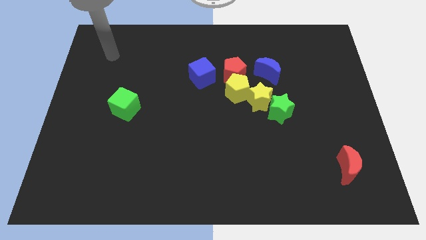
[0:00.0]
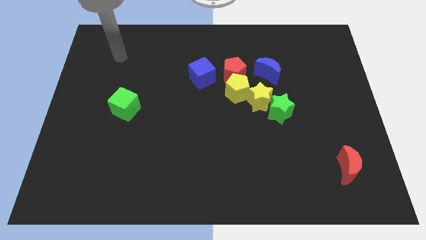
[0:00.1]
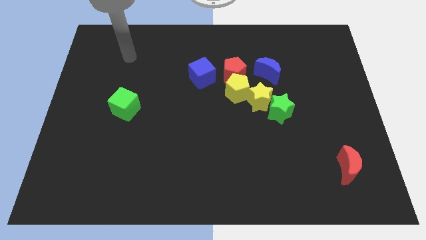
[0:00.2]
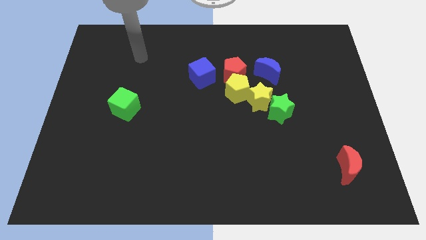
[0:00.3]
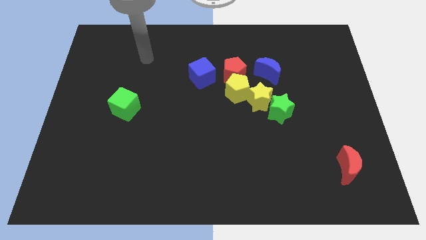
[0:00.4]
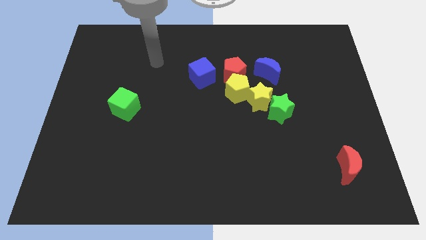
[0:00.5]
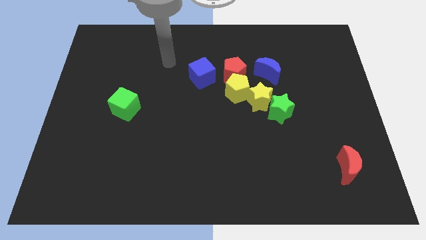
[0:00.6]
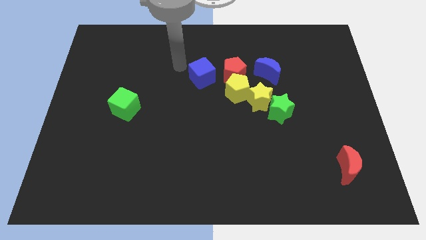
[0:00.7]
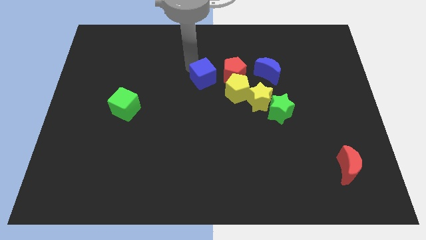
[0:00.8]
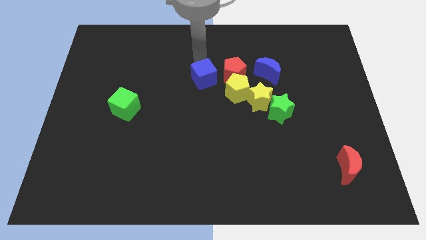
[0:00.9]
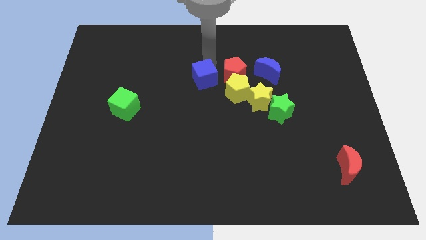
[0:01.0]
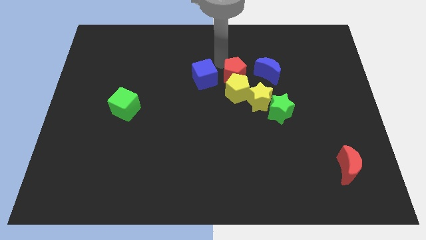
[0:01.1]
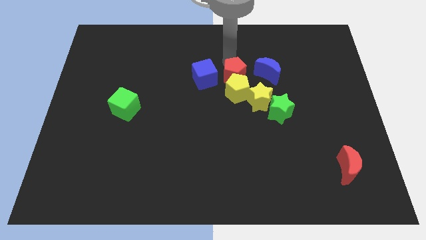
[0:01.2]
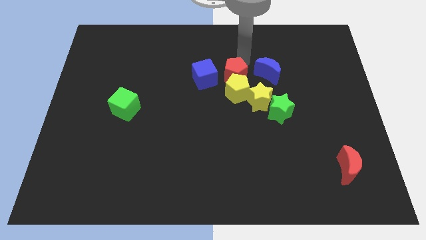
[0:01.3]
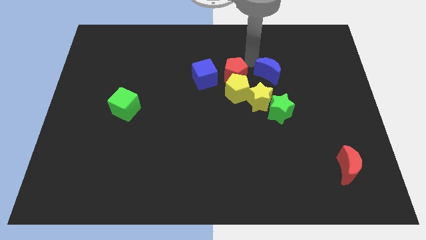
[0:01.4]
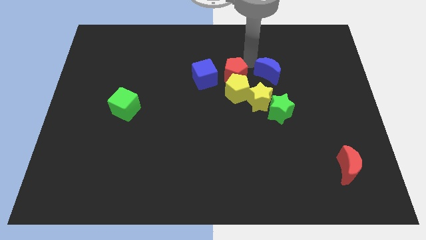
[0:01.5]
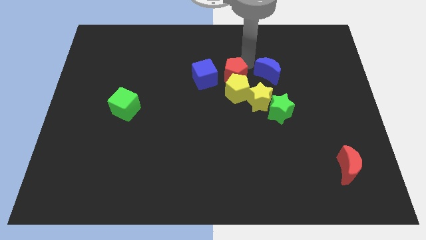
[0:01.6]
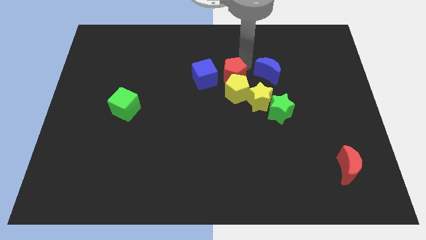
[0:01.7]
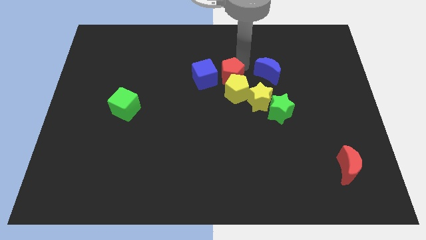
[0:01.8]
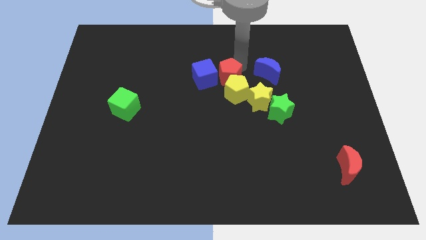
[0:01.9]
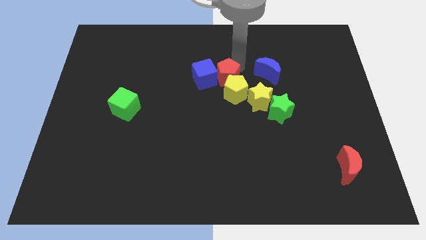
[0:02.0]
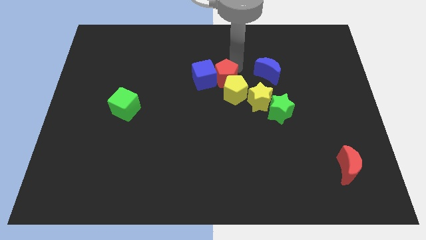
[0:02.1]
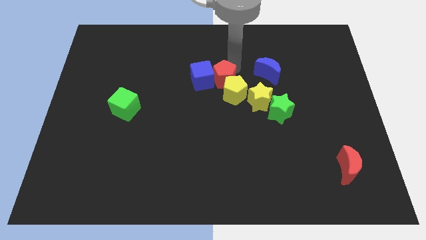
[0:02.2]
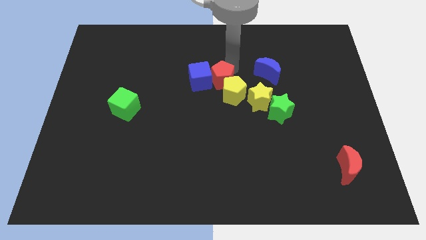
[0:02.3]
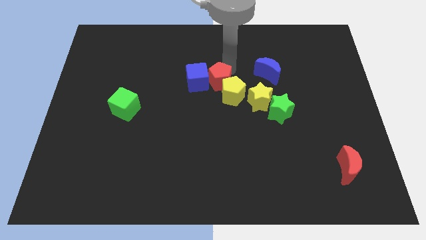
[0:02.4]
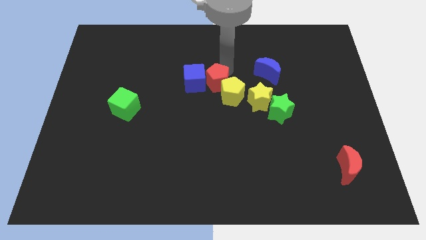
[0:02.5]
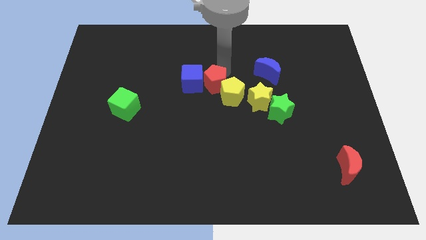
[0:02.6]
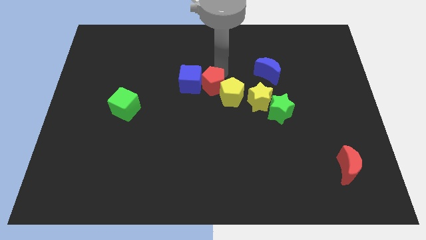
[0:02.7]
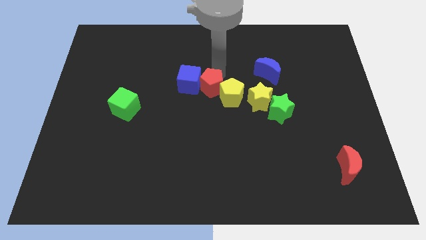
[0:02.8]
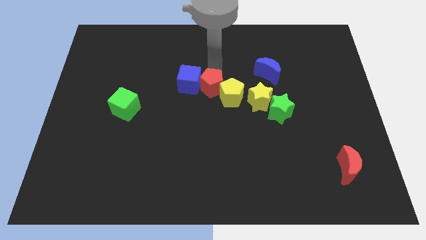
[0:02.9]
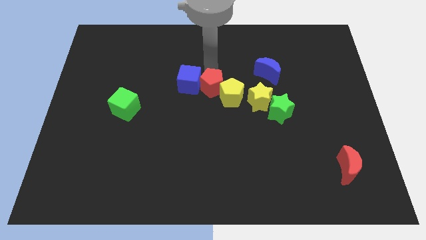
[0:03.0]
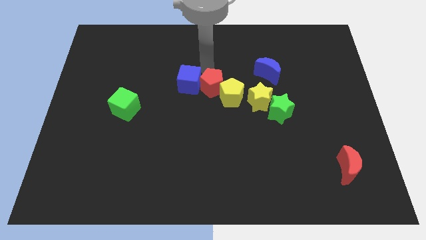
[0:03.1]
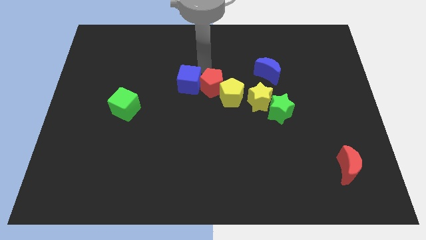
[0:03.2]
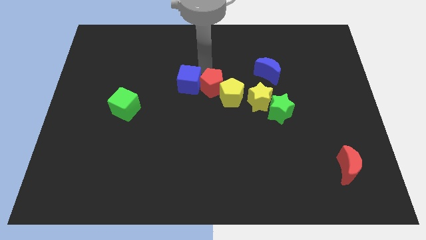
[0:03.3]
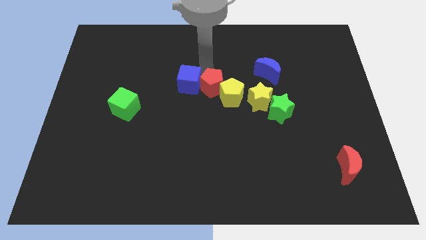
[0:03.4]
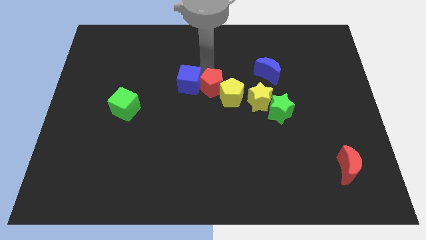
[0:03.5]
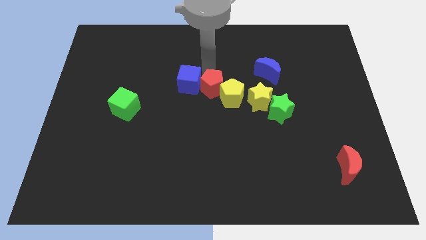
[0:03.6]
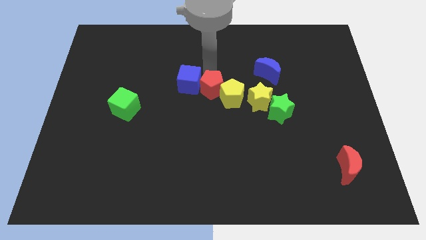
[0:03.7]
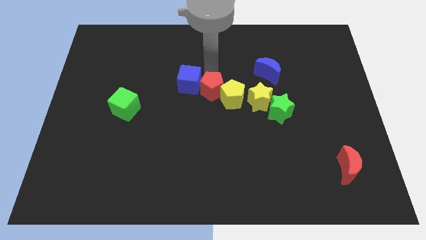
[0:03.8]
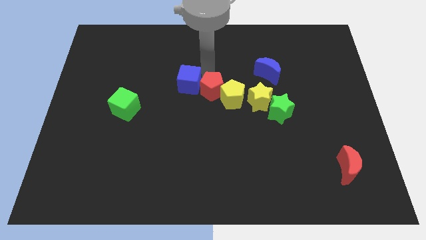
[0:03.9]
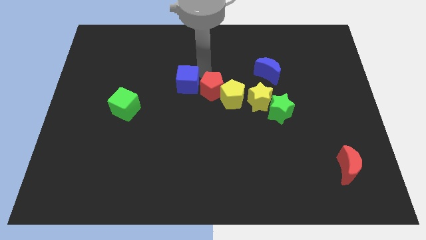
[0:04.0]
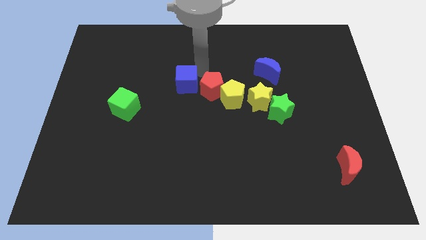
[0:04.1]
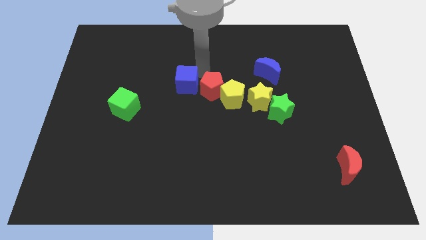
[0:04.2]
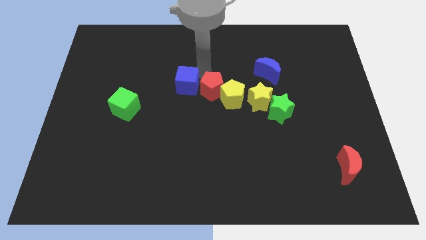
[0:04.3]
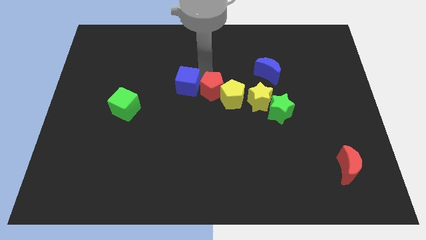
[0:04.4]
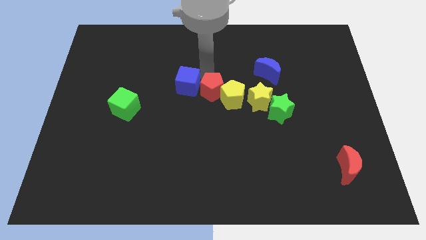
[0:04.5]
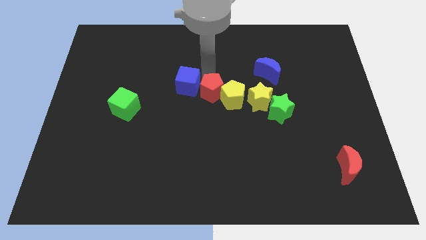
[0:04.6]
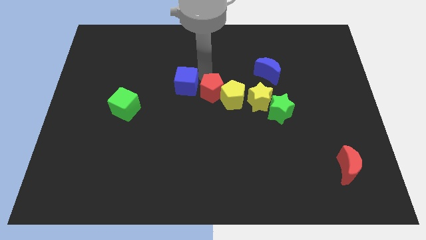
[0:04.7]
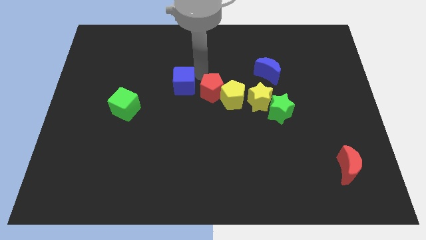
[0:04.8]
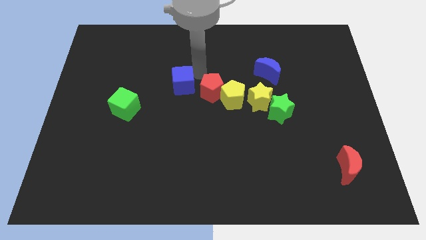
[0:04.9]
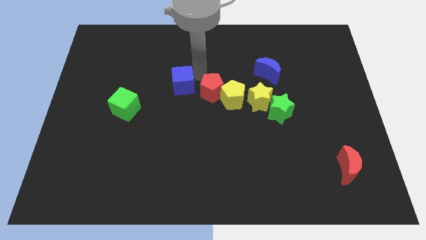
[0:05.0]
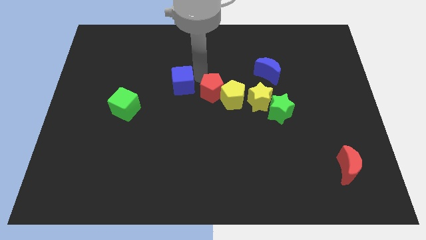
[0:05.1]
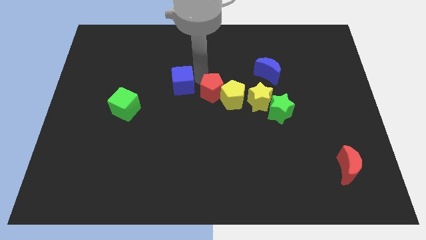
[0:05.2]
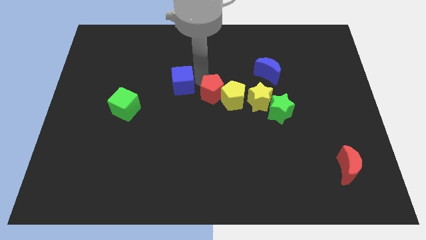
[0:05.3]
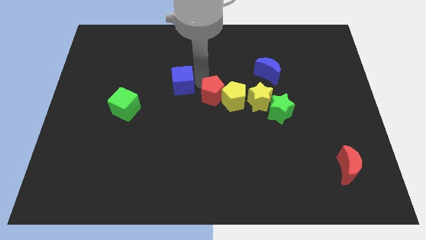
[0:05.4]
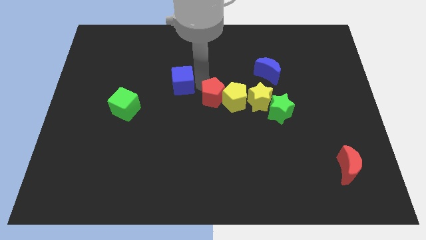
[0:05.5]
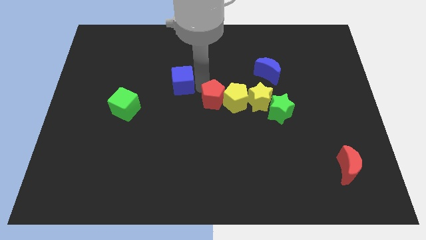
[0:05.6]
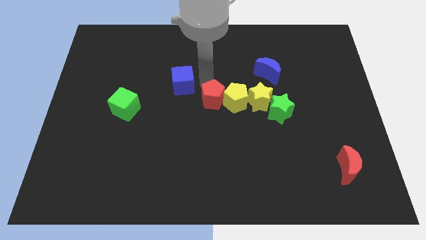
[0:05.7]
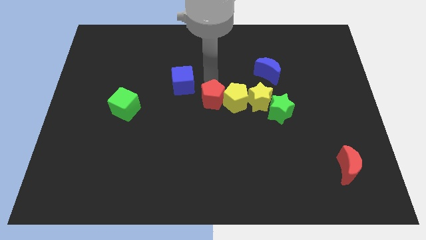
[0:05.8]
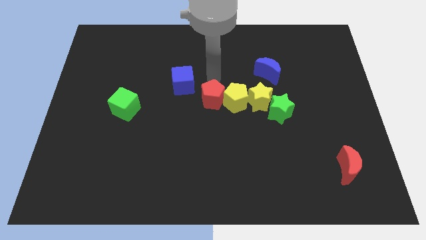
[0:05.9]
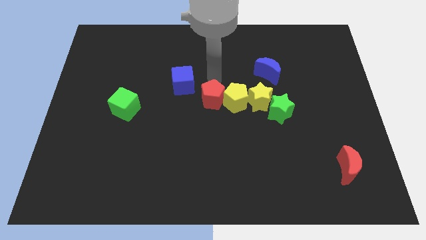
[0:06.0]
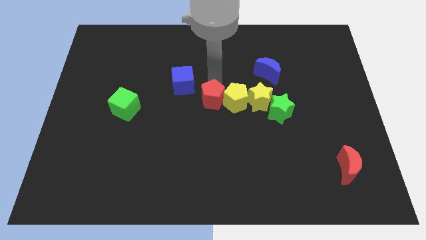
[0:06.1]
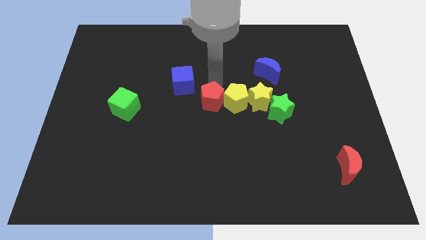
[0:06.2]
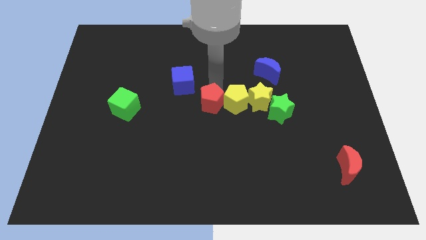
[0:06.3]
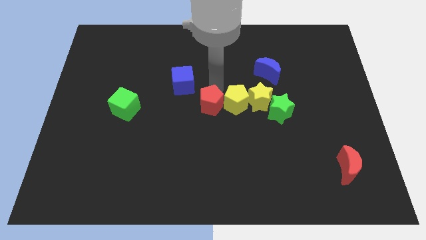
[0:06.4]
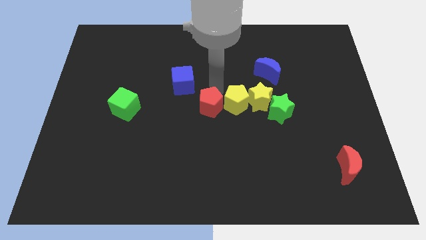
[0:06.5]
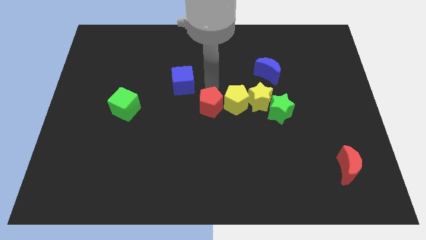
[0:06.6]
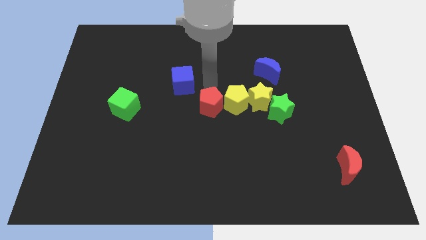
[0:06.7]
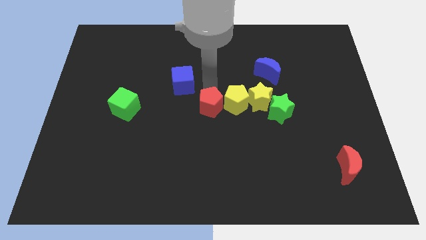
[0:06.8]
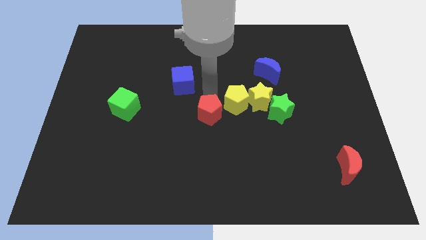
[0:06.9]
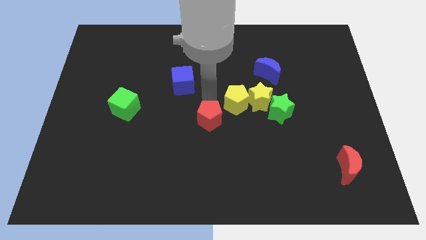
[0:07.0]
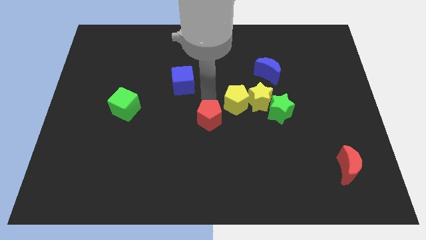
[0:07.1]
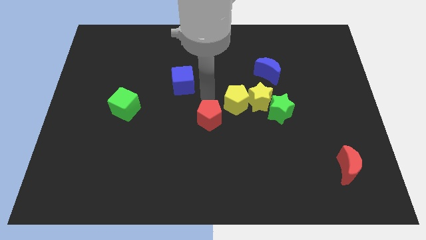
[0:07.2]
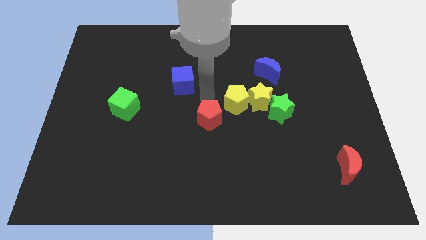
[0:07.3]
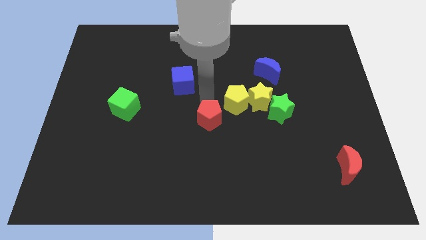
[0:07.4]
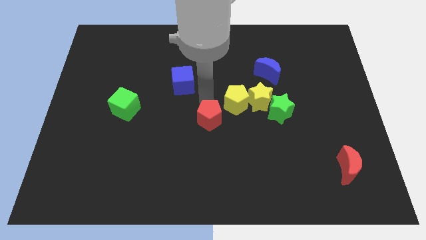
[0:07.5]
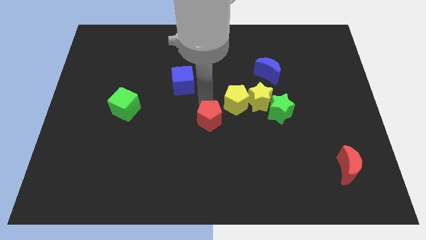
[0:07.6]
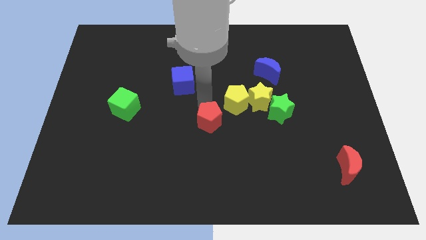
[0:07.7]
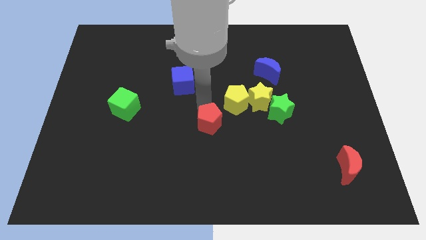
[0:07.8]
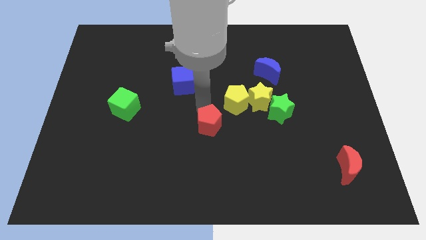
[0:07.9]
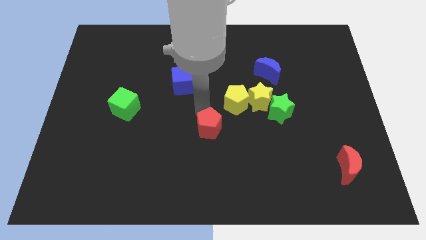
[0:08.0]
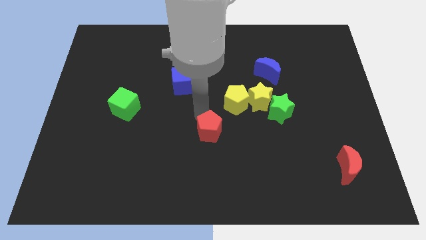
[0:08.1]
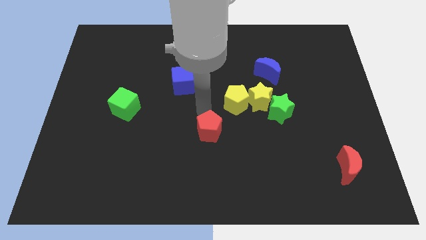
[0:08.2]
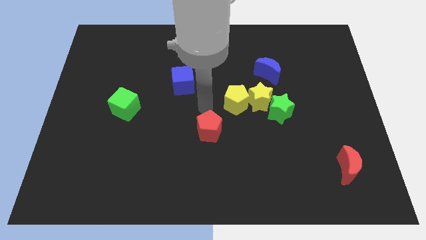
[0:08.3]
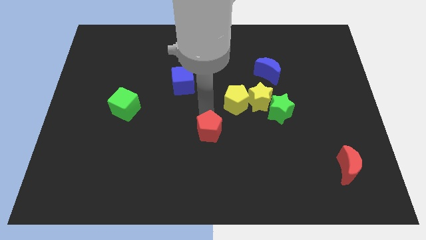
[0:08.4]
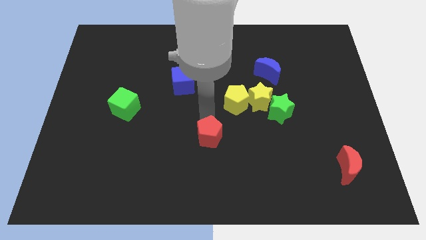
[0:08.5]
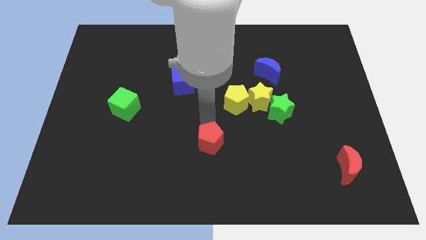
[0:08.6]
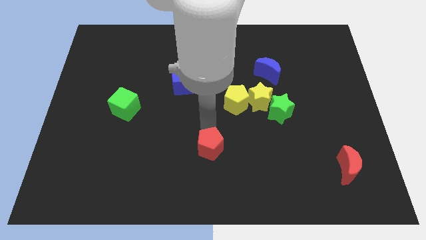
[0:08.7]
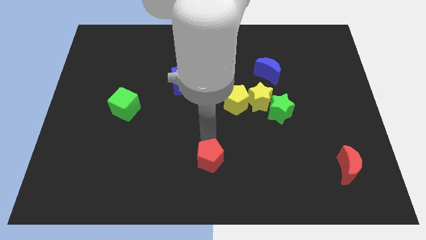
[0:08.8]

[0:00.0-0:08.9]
move the red pentagon to the bottom side
